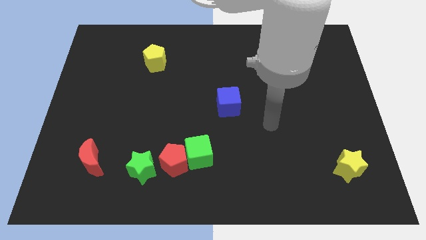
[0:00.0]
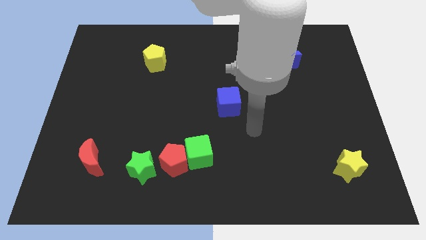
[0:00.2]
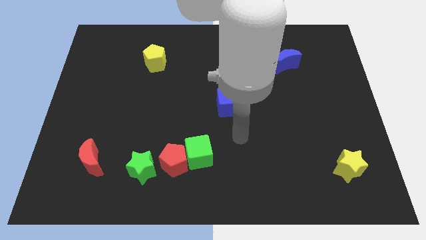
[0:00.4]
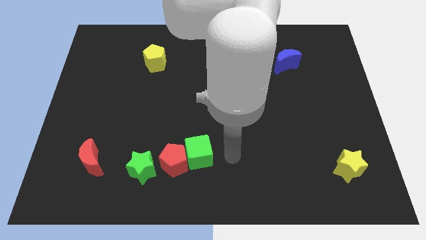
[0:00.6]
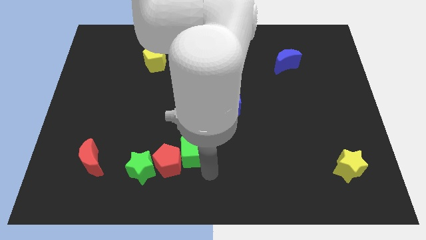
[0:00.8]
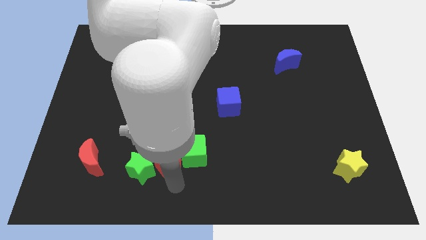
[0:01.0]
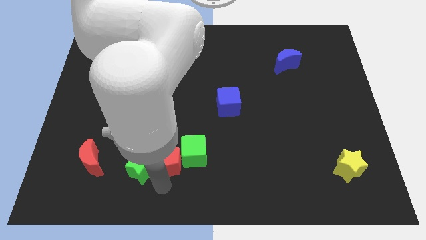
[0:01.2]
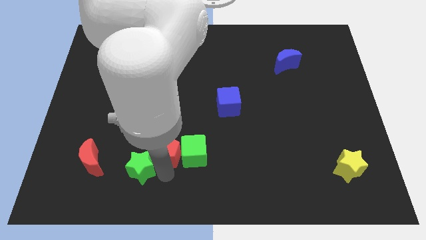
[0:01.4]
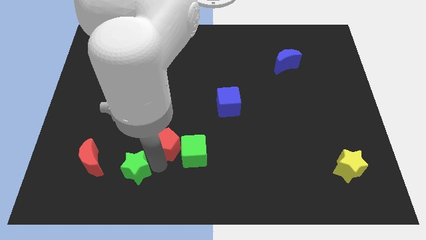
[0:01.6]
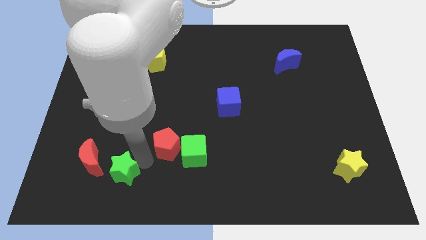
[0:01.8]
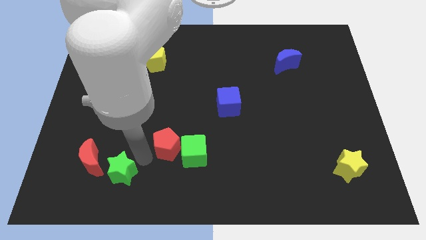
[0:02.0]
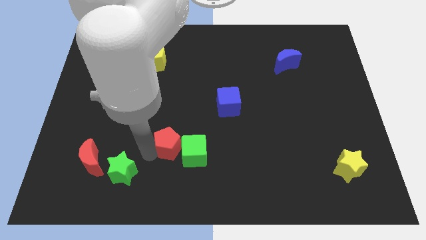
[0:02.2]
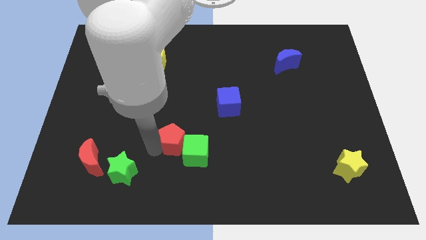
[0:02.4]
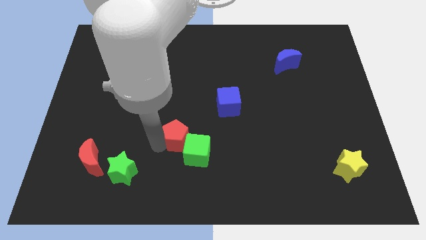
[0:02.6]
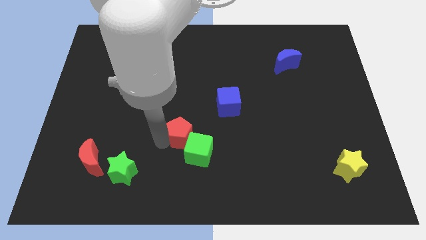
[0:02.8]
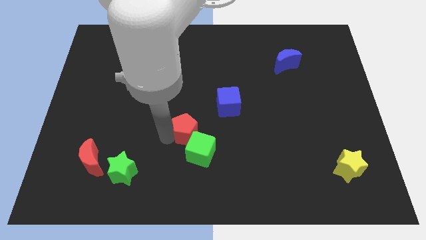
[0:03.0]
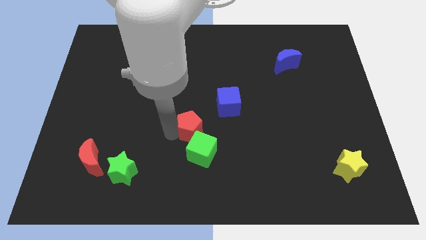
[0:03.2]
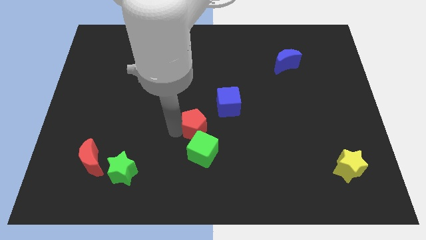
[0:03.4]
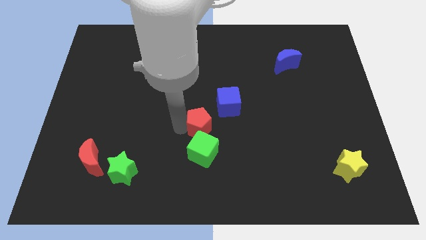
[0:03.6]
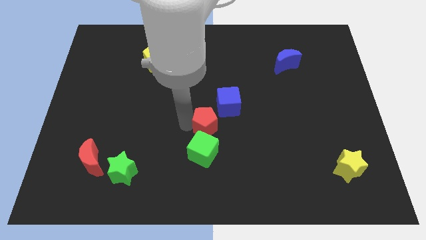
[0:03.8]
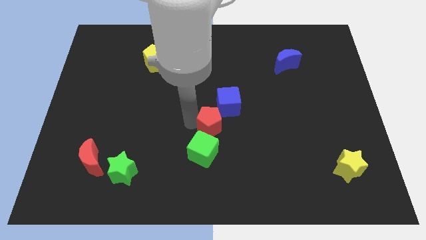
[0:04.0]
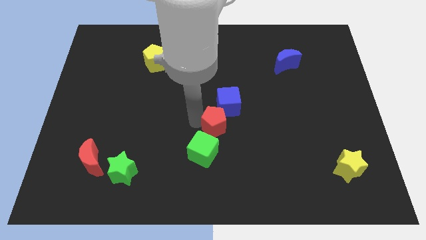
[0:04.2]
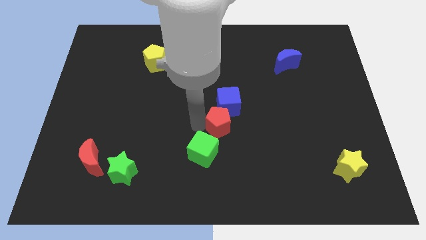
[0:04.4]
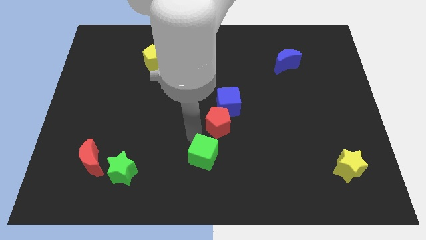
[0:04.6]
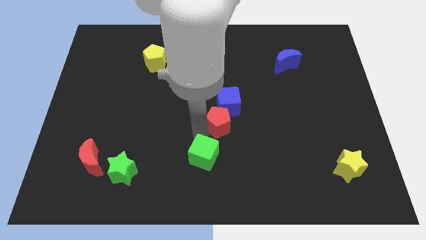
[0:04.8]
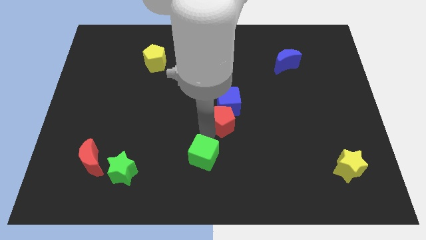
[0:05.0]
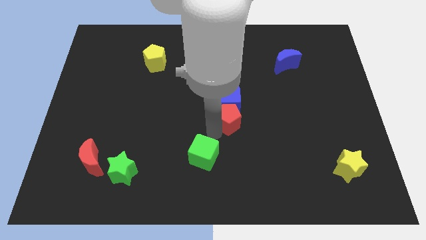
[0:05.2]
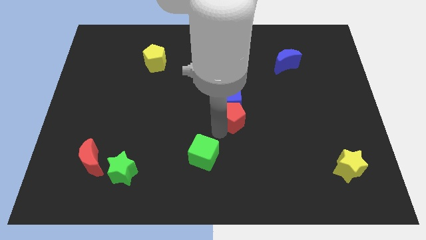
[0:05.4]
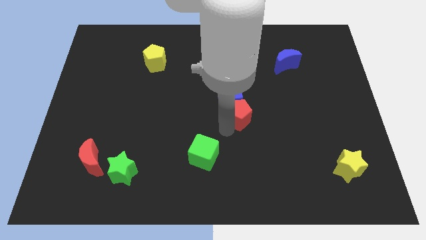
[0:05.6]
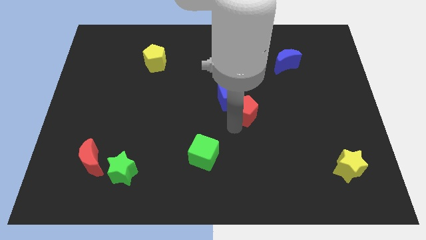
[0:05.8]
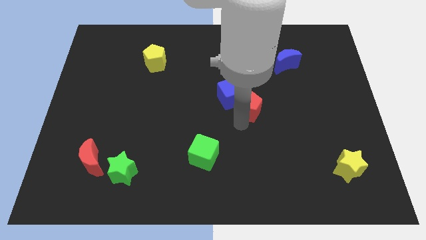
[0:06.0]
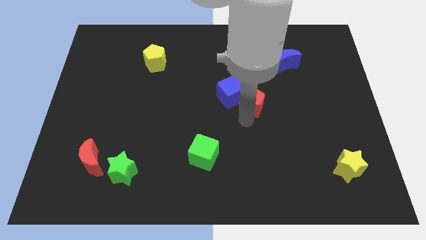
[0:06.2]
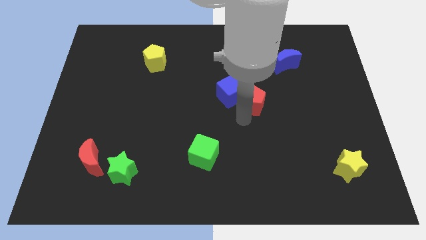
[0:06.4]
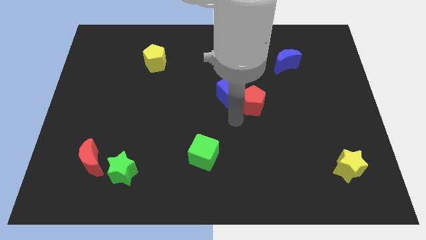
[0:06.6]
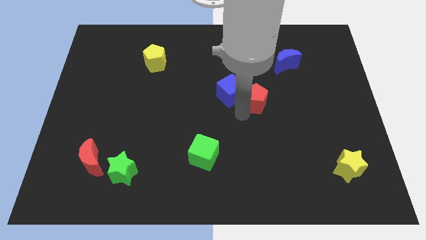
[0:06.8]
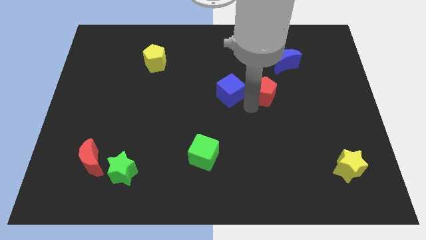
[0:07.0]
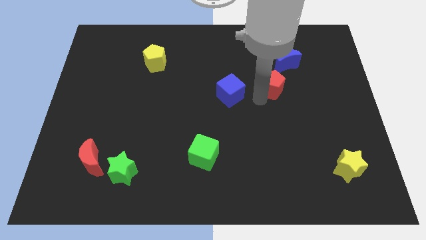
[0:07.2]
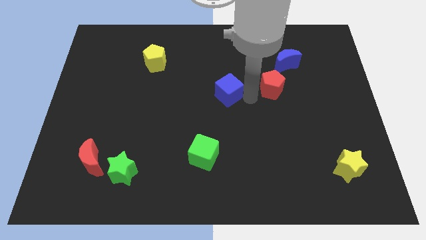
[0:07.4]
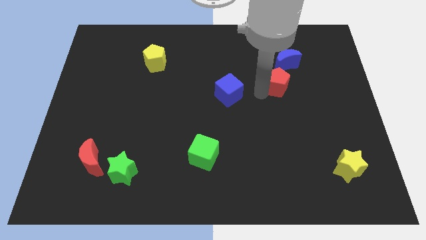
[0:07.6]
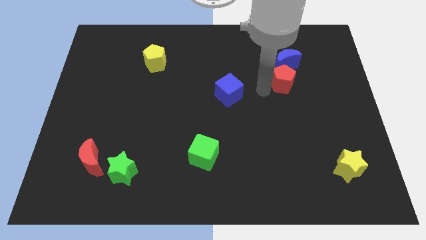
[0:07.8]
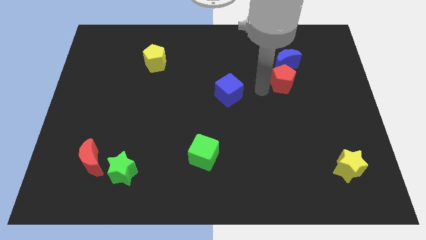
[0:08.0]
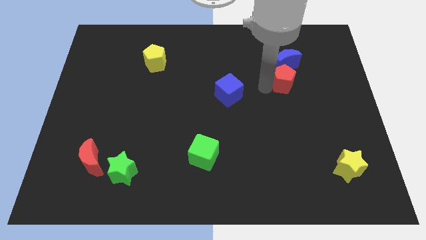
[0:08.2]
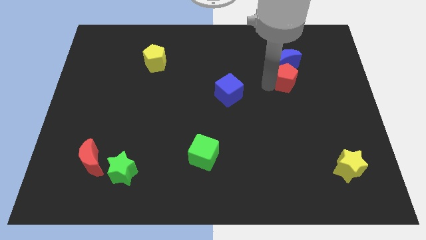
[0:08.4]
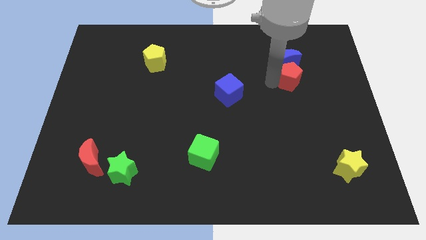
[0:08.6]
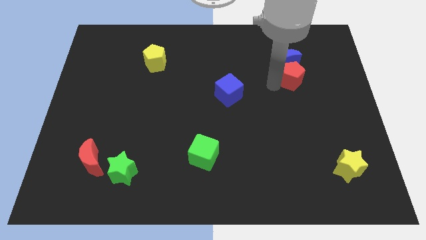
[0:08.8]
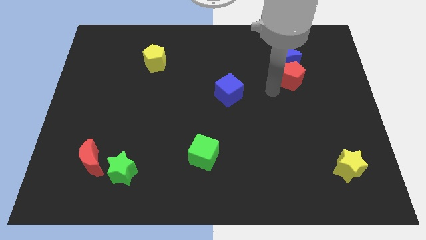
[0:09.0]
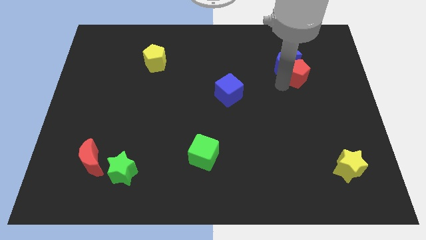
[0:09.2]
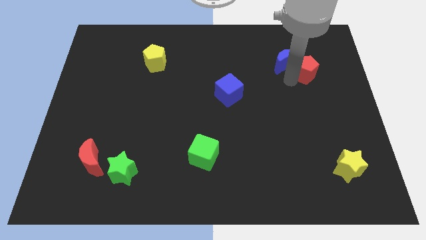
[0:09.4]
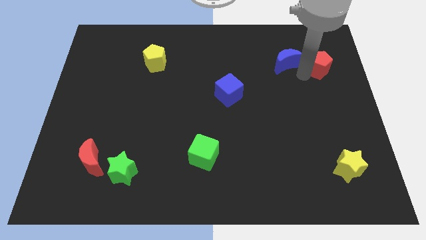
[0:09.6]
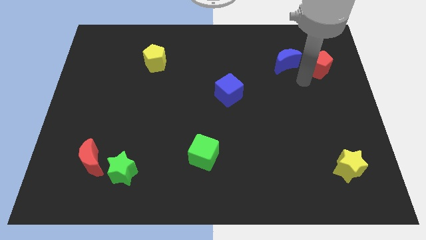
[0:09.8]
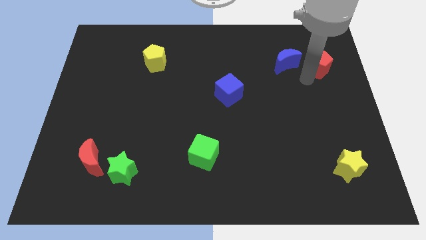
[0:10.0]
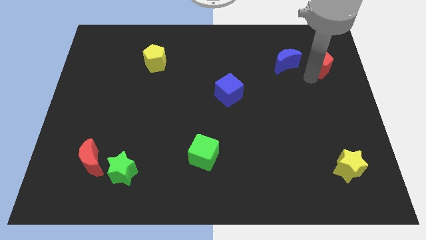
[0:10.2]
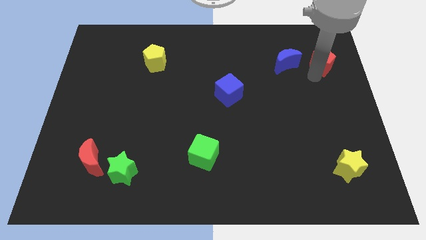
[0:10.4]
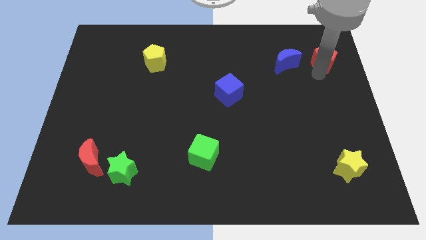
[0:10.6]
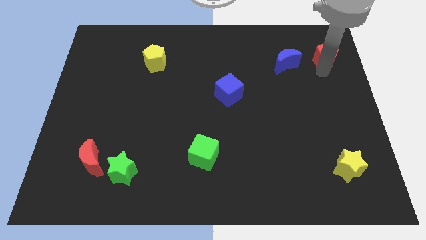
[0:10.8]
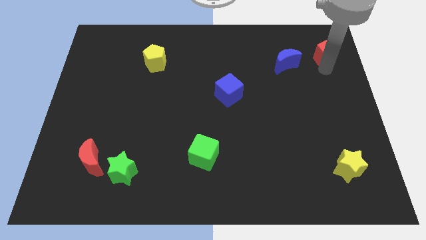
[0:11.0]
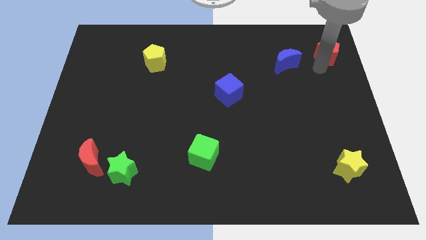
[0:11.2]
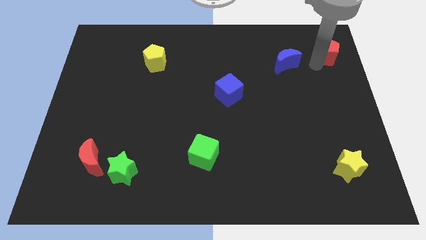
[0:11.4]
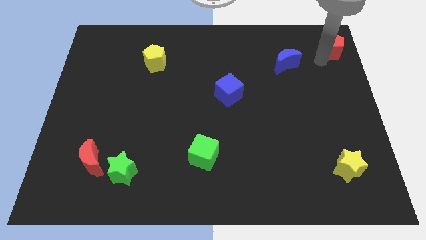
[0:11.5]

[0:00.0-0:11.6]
move the red pentagon to the top right corner
